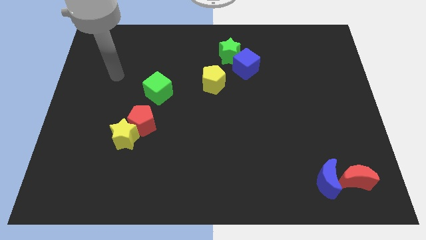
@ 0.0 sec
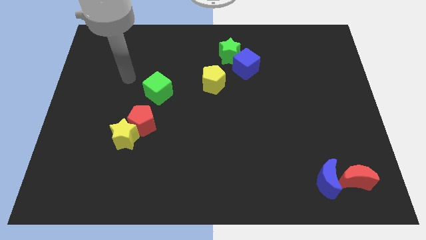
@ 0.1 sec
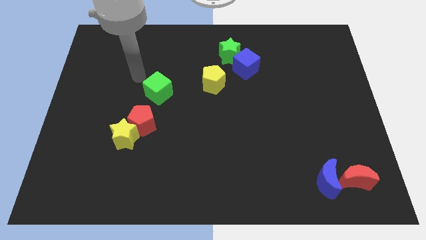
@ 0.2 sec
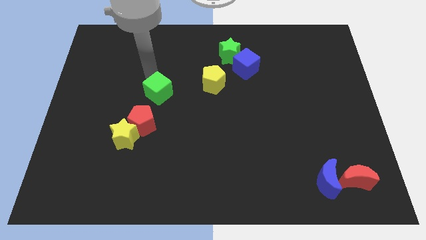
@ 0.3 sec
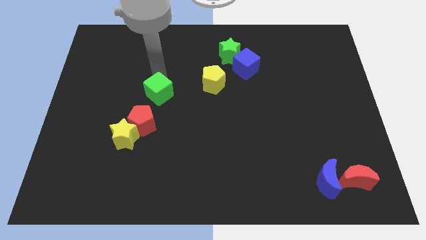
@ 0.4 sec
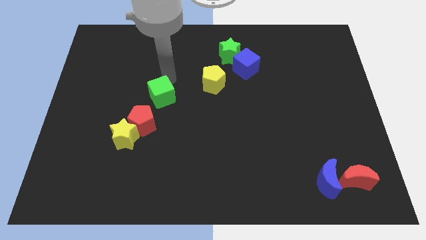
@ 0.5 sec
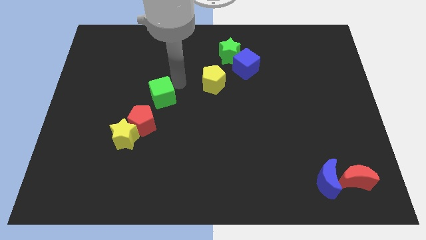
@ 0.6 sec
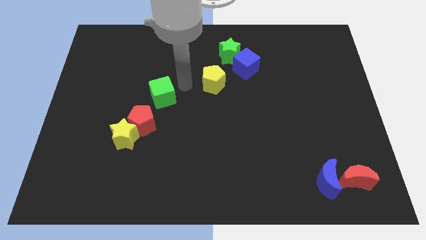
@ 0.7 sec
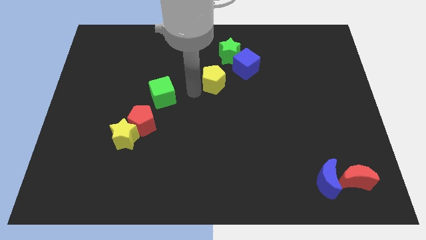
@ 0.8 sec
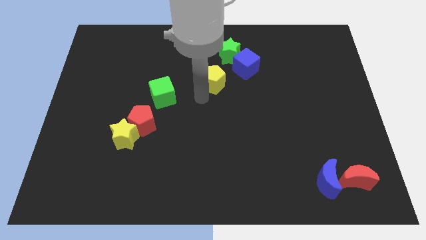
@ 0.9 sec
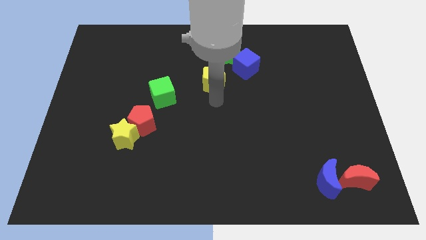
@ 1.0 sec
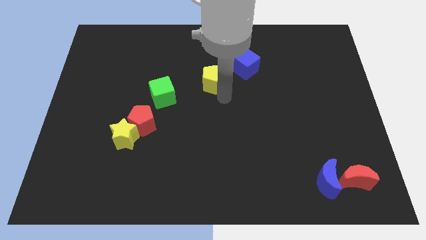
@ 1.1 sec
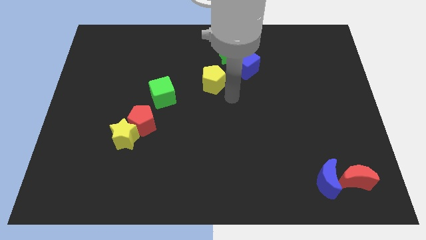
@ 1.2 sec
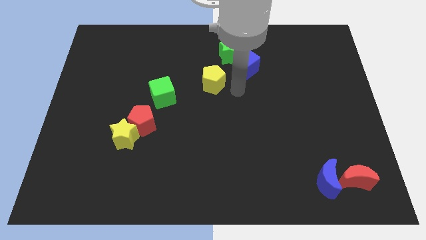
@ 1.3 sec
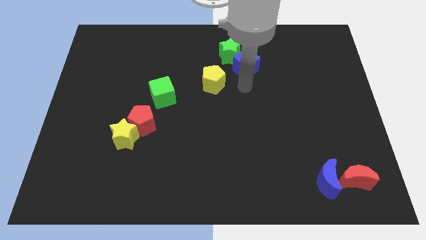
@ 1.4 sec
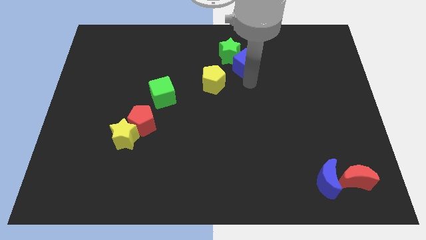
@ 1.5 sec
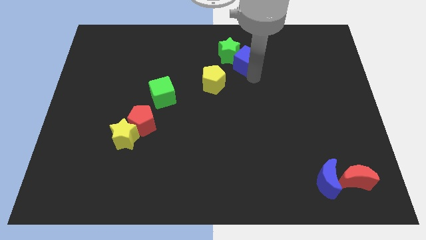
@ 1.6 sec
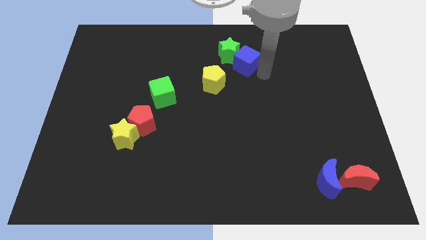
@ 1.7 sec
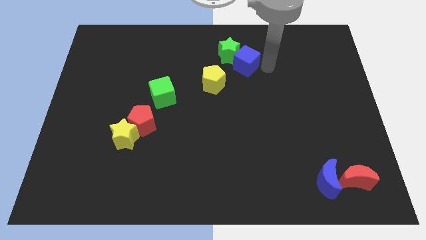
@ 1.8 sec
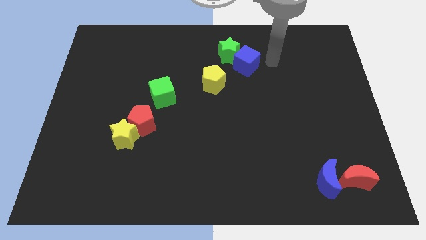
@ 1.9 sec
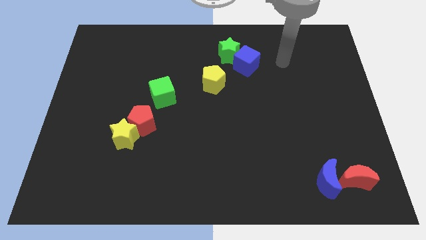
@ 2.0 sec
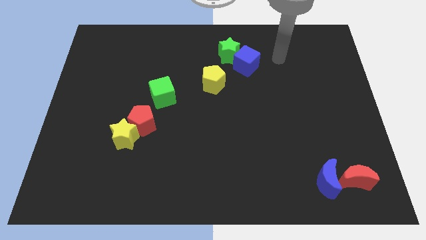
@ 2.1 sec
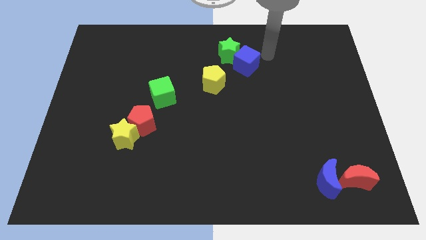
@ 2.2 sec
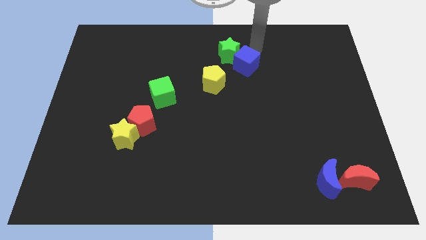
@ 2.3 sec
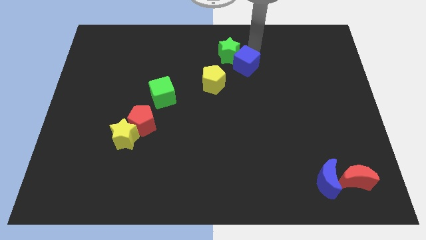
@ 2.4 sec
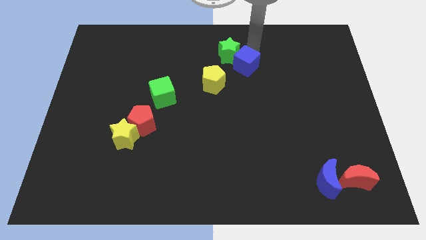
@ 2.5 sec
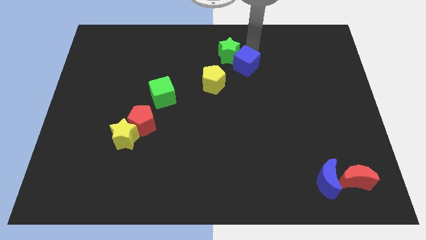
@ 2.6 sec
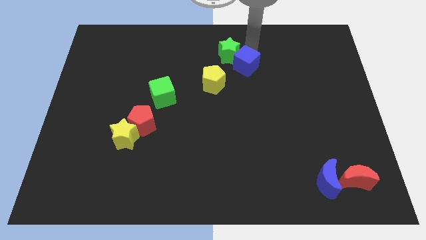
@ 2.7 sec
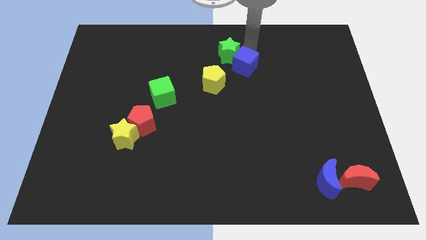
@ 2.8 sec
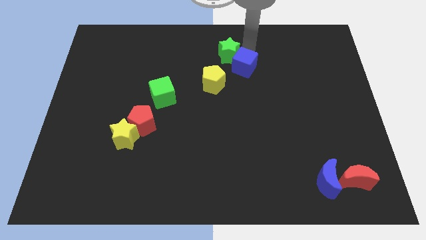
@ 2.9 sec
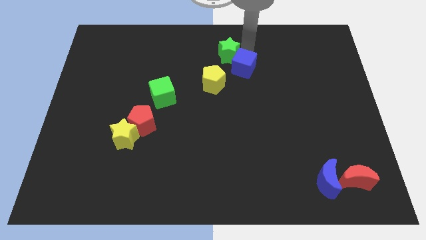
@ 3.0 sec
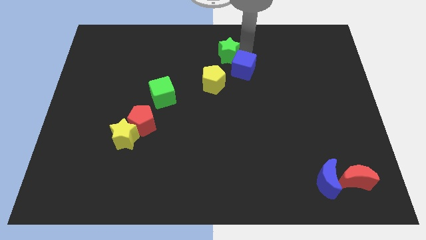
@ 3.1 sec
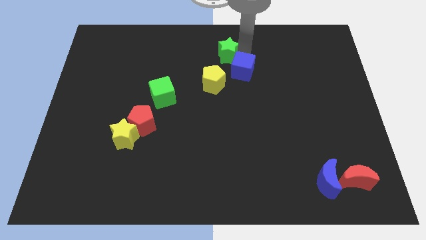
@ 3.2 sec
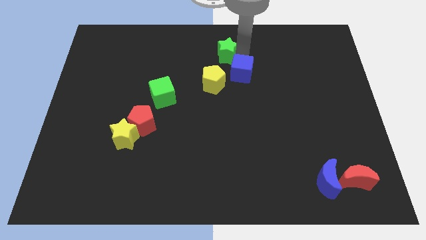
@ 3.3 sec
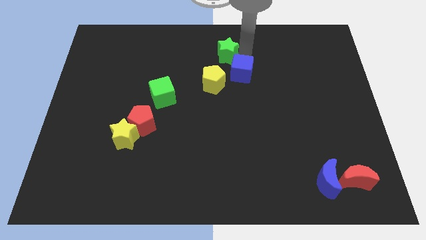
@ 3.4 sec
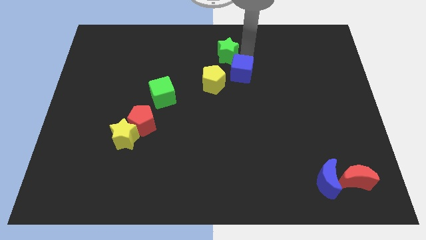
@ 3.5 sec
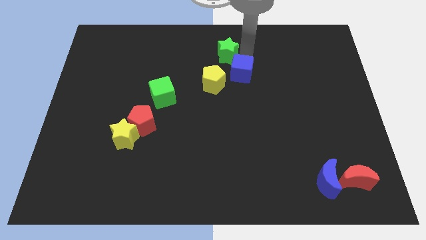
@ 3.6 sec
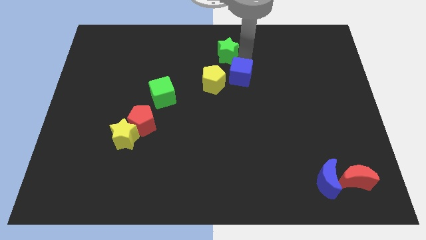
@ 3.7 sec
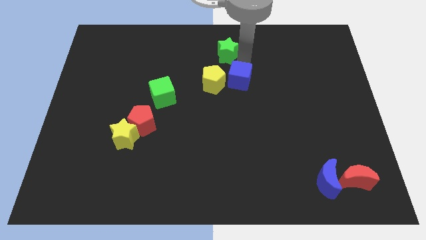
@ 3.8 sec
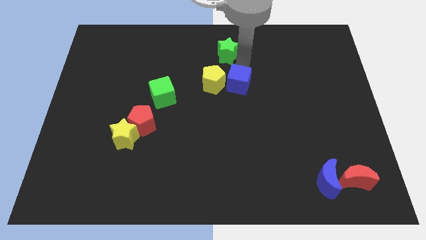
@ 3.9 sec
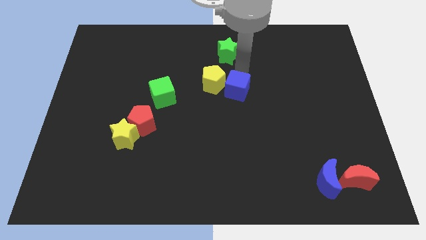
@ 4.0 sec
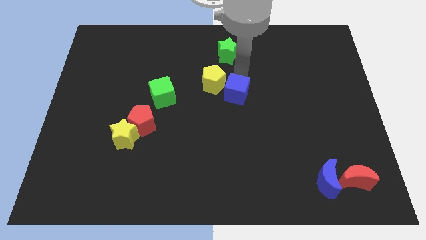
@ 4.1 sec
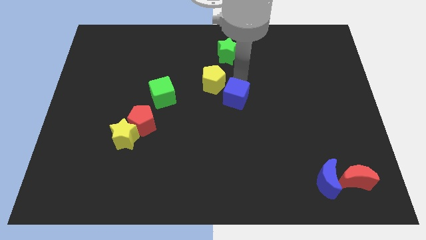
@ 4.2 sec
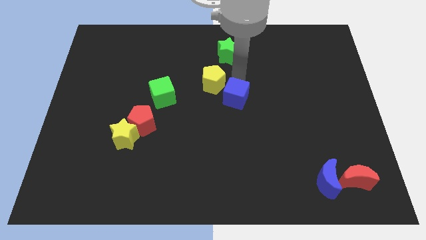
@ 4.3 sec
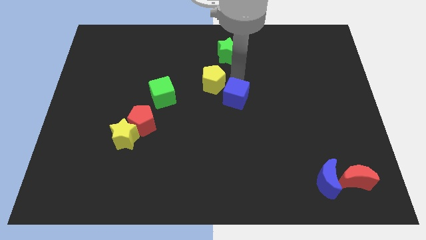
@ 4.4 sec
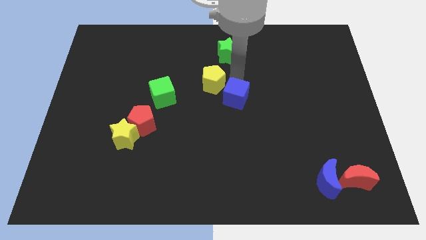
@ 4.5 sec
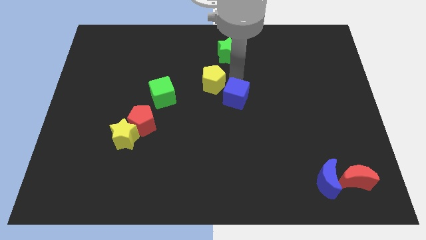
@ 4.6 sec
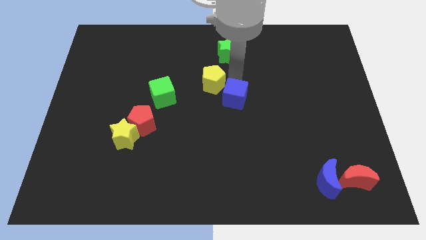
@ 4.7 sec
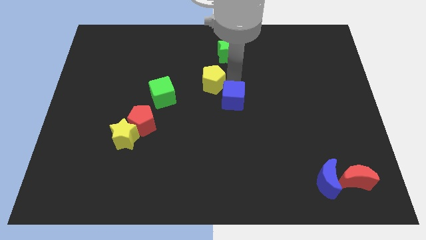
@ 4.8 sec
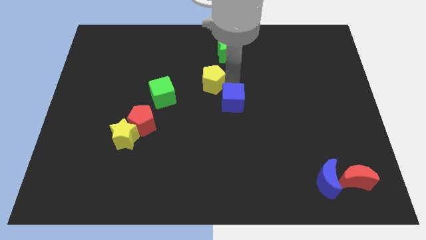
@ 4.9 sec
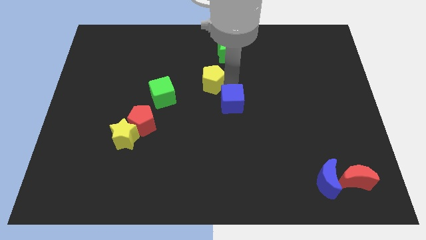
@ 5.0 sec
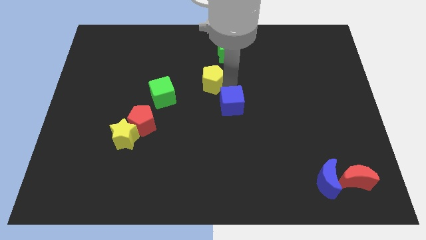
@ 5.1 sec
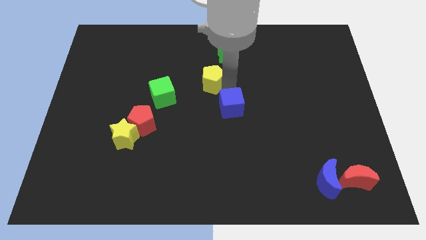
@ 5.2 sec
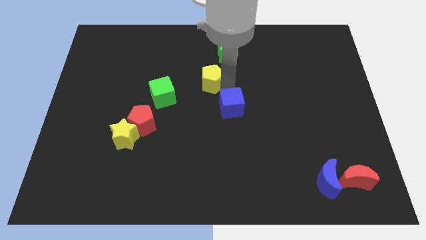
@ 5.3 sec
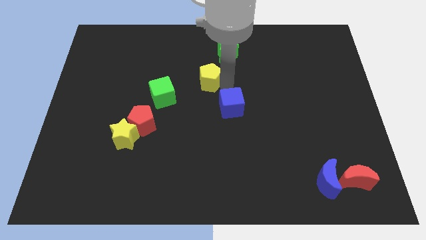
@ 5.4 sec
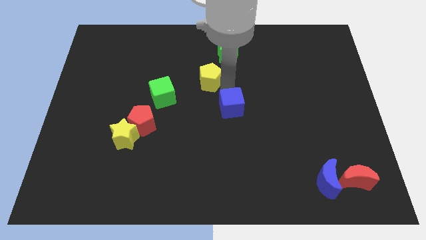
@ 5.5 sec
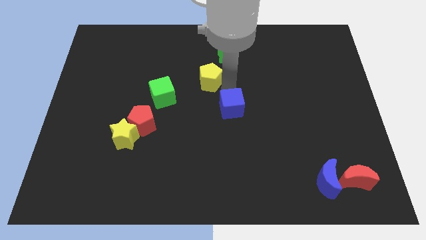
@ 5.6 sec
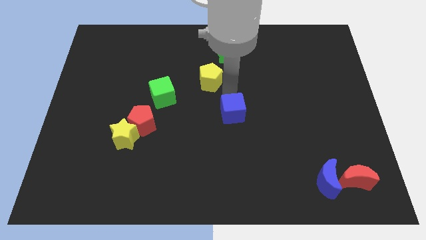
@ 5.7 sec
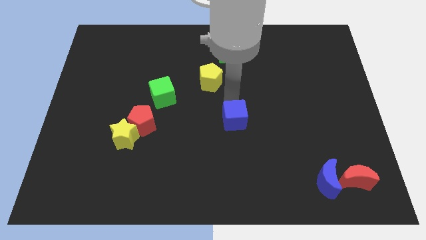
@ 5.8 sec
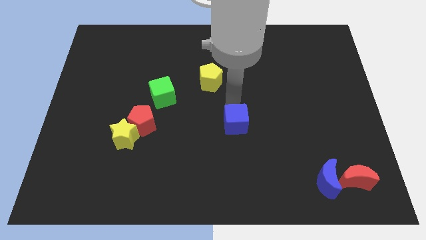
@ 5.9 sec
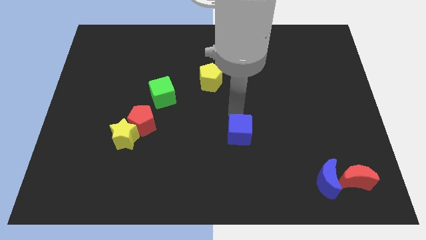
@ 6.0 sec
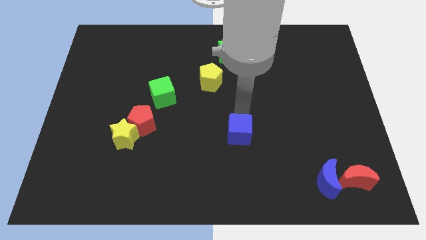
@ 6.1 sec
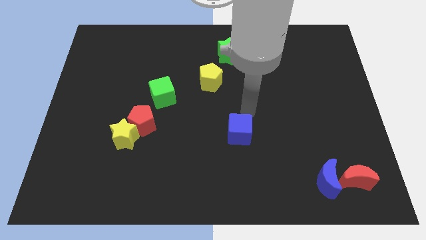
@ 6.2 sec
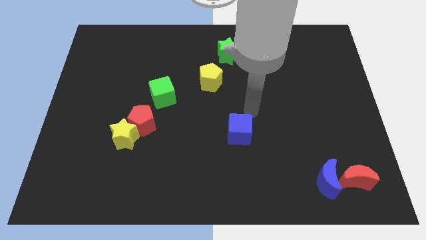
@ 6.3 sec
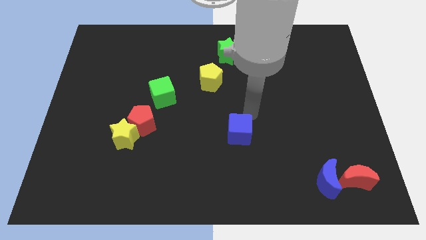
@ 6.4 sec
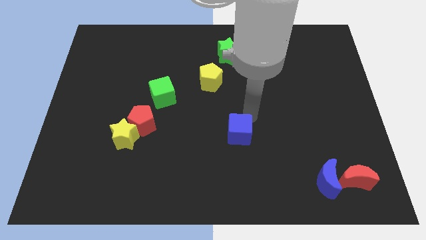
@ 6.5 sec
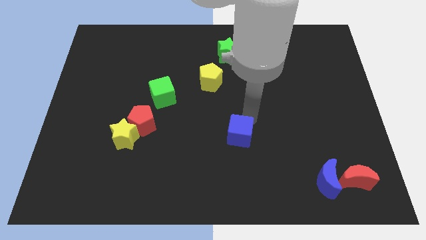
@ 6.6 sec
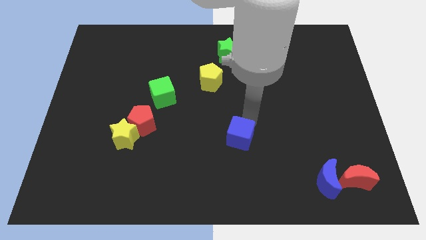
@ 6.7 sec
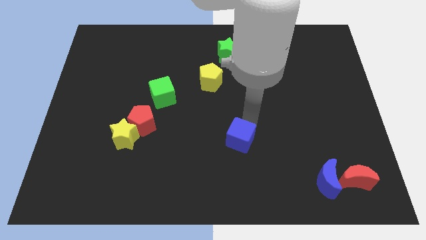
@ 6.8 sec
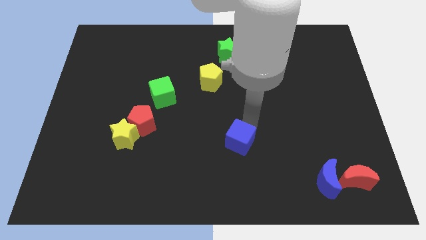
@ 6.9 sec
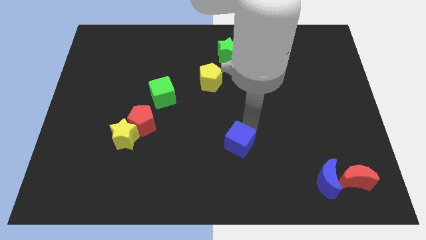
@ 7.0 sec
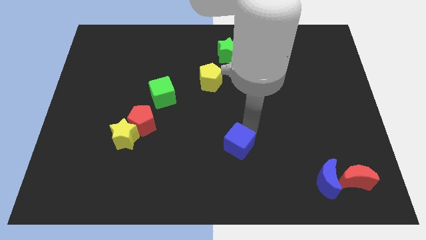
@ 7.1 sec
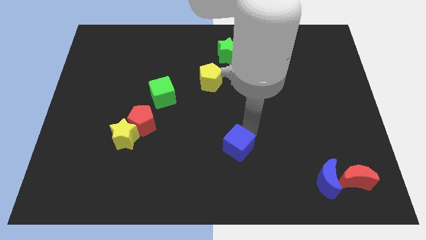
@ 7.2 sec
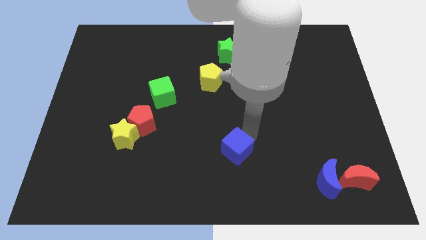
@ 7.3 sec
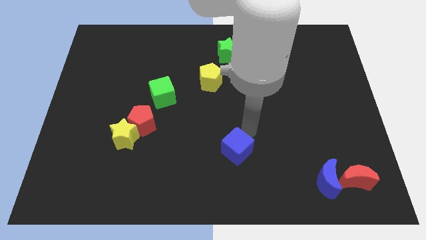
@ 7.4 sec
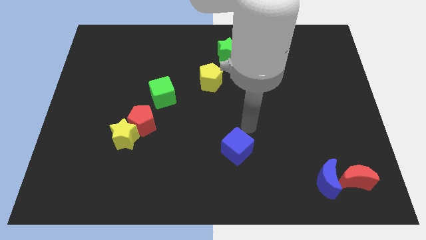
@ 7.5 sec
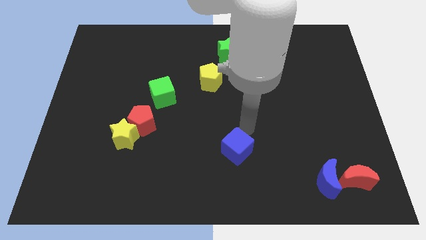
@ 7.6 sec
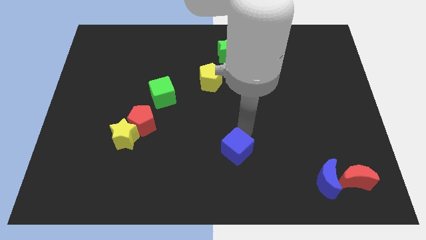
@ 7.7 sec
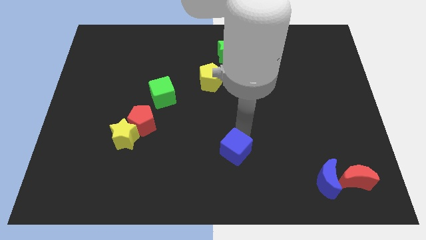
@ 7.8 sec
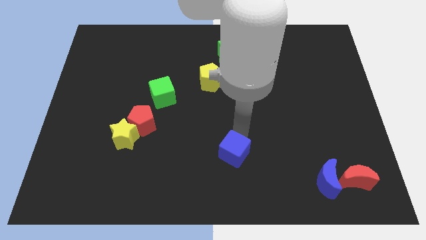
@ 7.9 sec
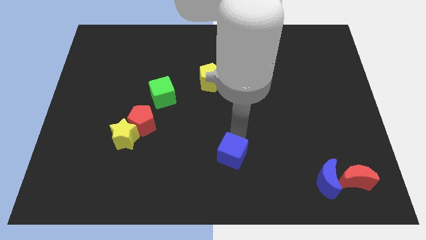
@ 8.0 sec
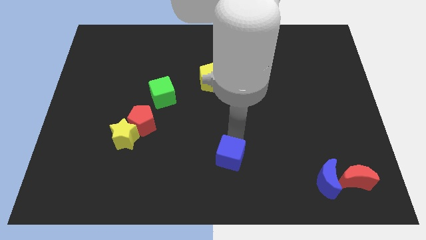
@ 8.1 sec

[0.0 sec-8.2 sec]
slide the blue cube to the bottom
